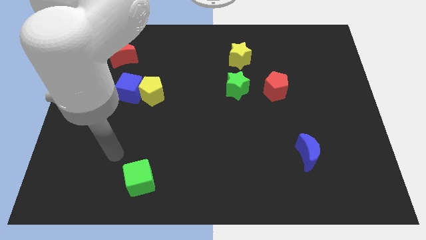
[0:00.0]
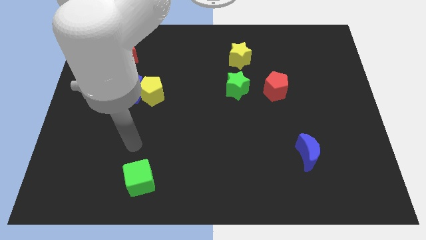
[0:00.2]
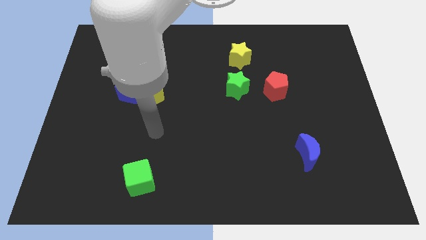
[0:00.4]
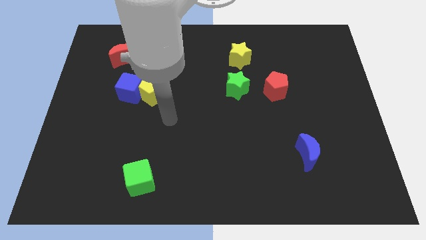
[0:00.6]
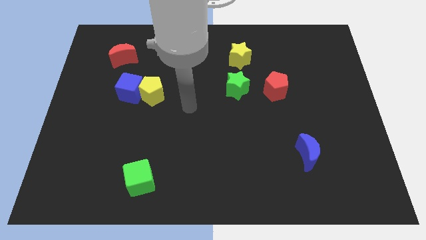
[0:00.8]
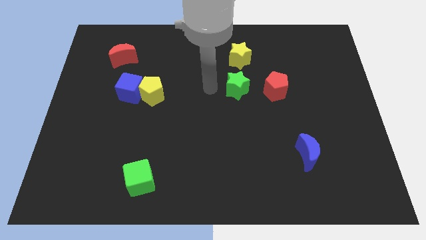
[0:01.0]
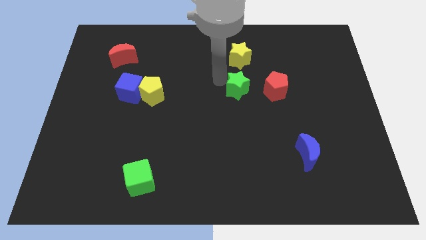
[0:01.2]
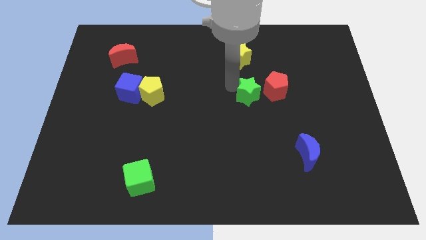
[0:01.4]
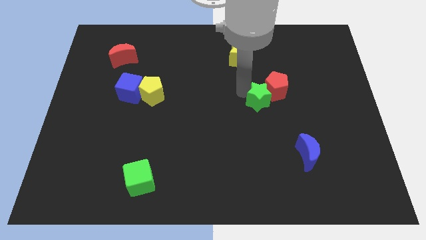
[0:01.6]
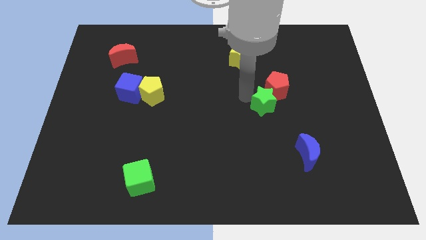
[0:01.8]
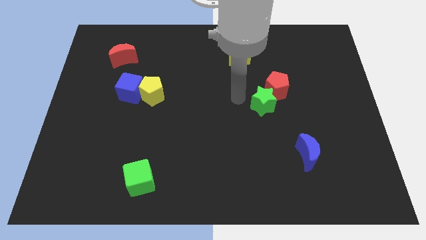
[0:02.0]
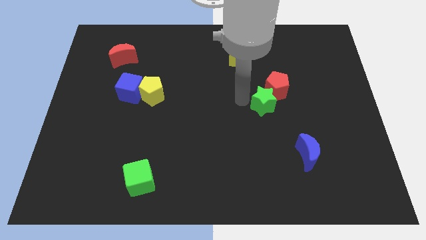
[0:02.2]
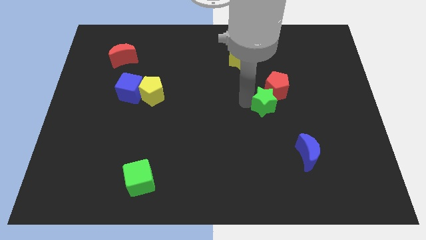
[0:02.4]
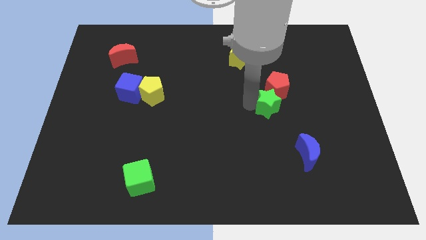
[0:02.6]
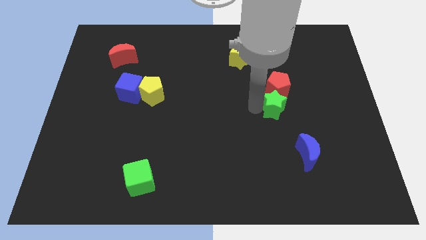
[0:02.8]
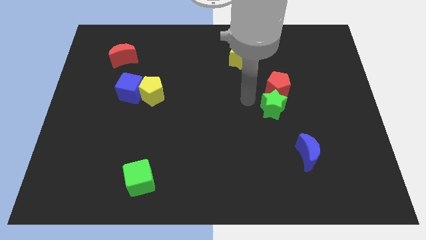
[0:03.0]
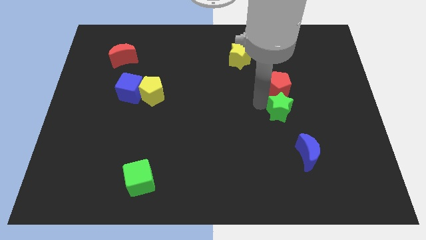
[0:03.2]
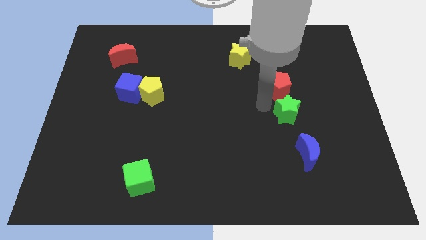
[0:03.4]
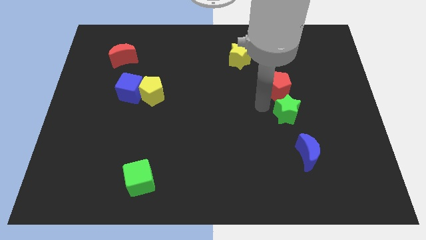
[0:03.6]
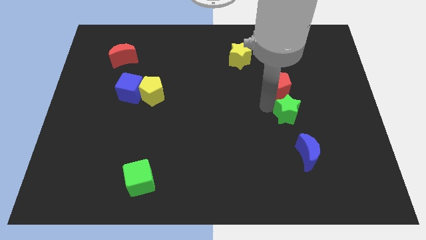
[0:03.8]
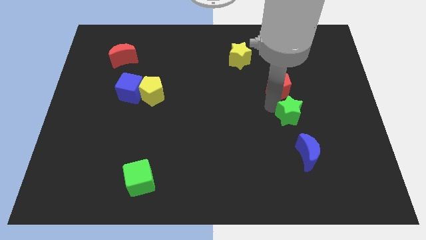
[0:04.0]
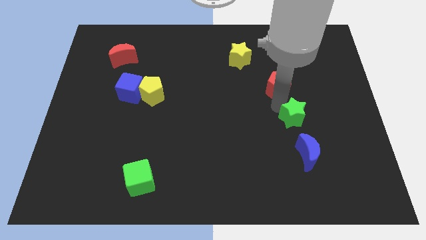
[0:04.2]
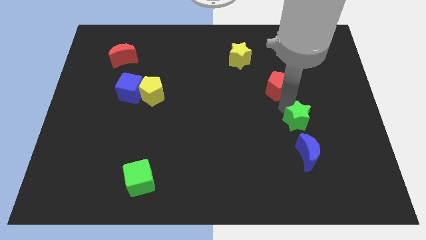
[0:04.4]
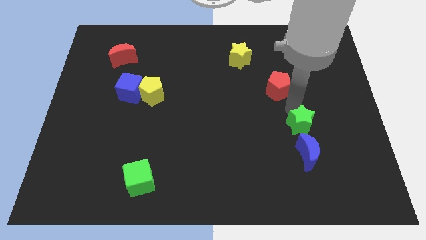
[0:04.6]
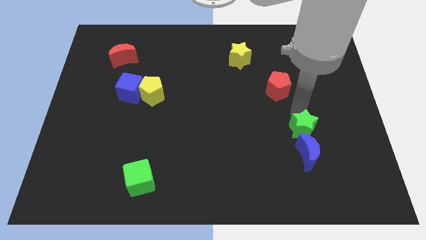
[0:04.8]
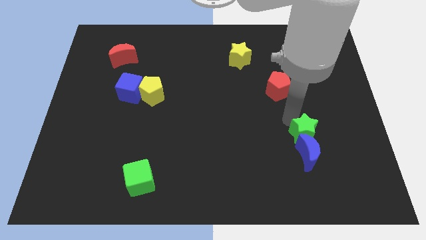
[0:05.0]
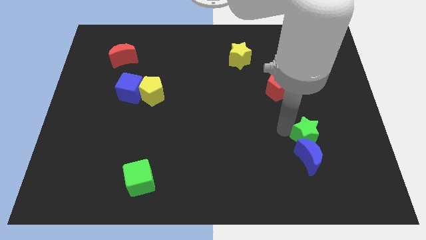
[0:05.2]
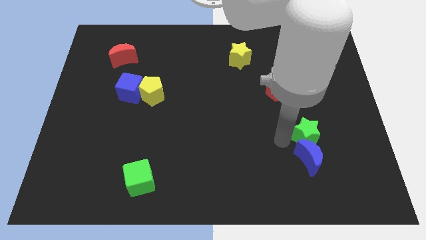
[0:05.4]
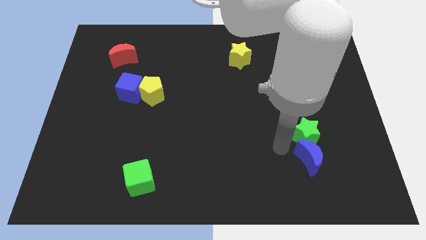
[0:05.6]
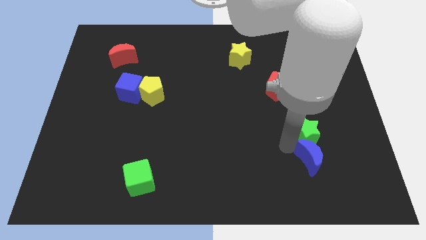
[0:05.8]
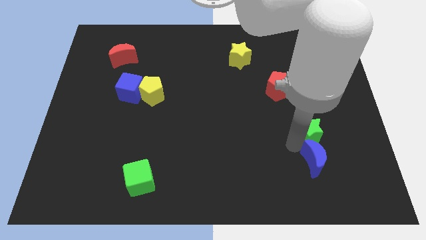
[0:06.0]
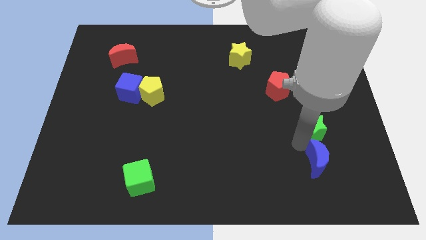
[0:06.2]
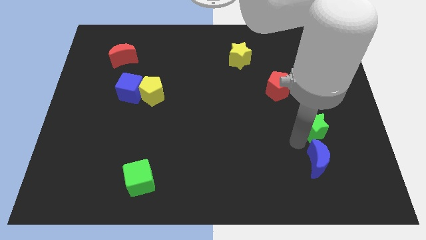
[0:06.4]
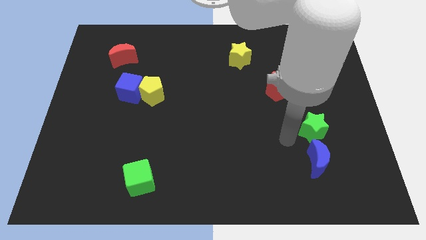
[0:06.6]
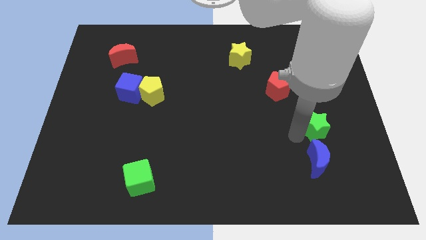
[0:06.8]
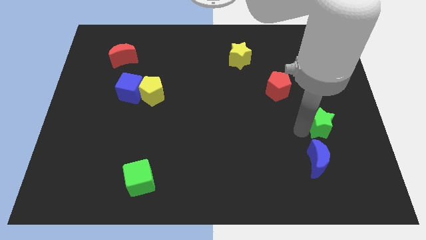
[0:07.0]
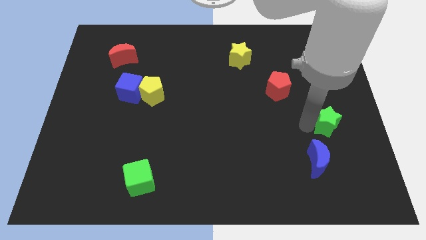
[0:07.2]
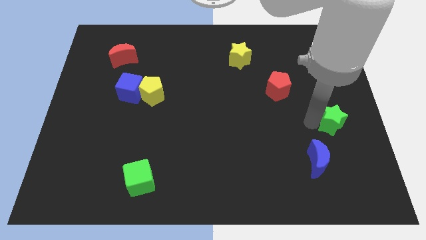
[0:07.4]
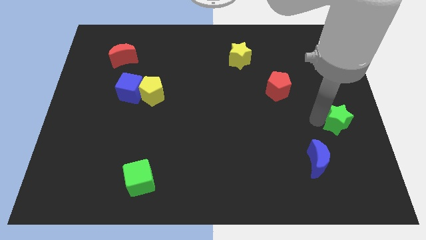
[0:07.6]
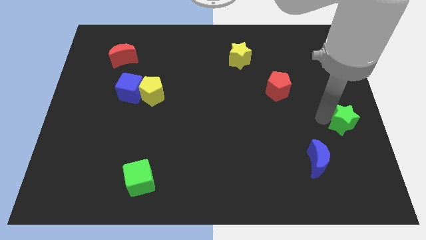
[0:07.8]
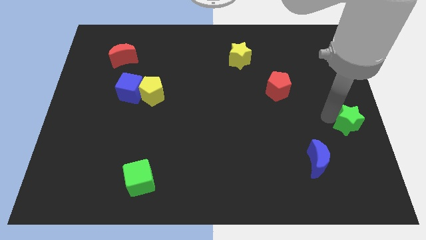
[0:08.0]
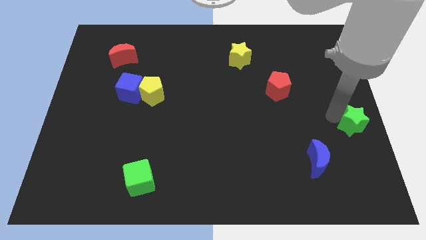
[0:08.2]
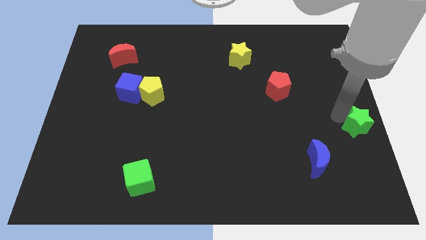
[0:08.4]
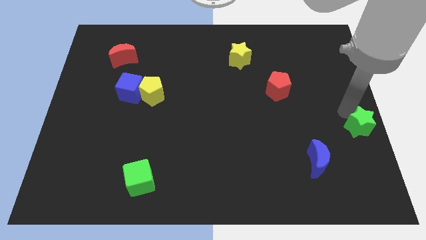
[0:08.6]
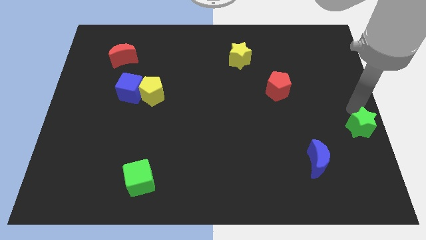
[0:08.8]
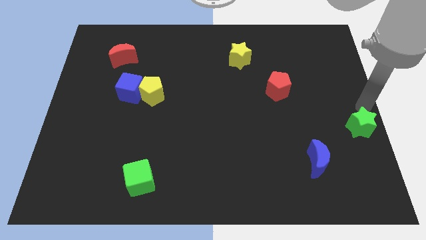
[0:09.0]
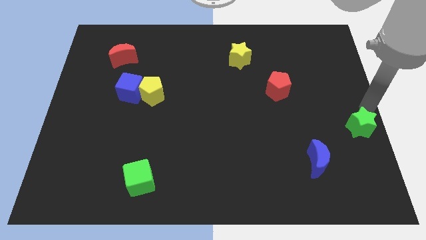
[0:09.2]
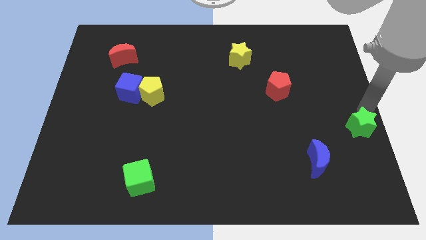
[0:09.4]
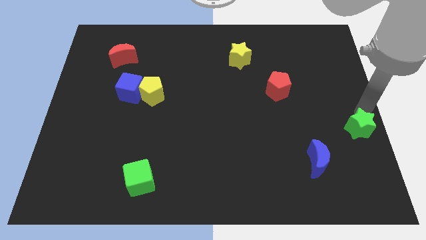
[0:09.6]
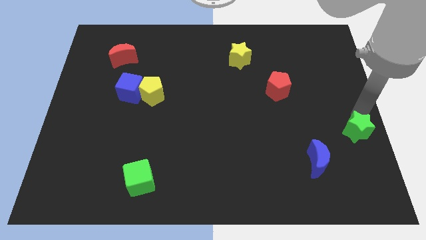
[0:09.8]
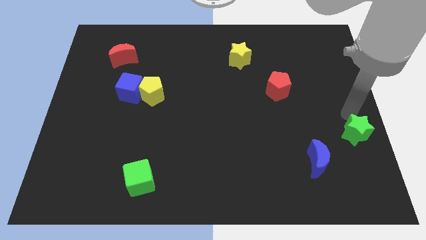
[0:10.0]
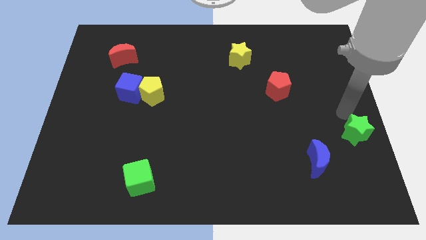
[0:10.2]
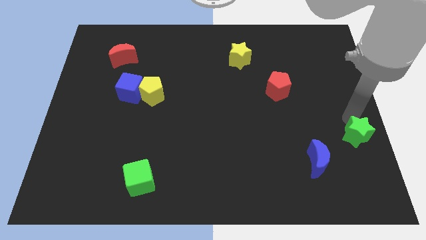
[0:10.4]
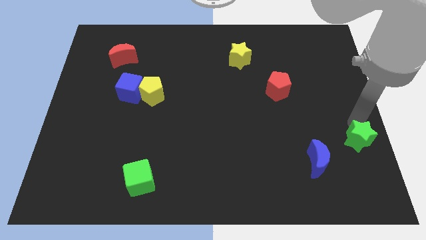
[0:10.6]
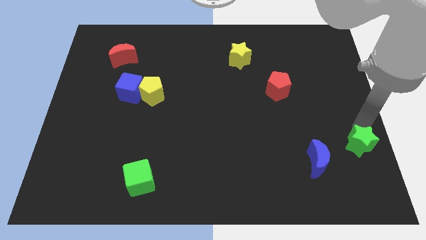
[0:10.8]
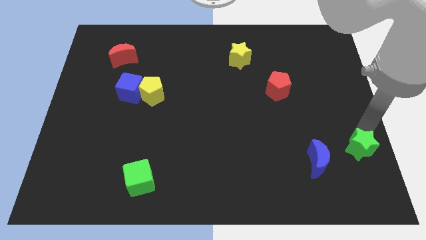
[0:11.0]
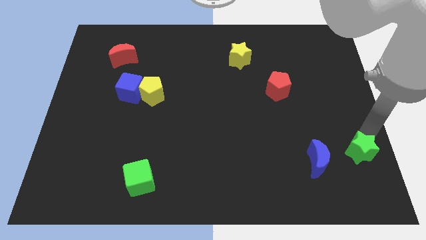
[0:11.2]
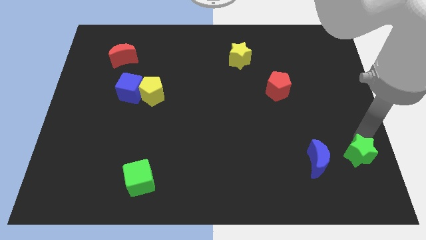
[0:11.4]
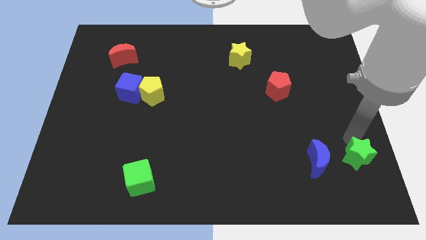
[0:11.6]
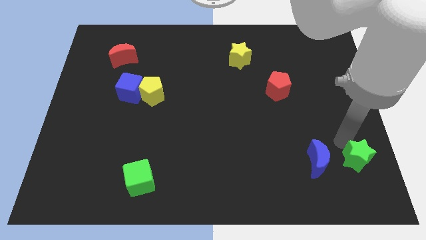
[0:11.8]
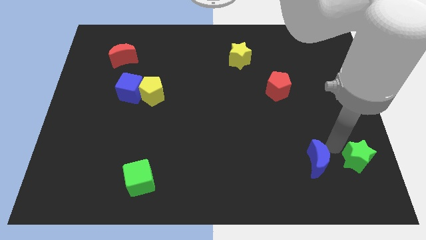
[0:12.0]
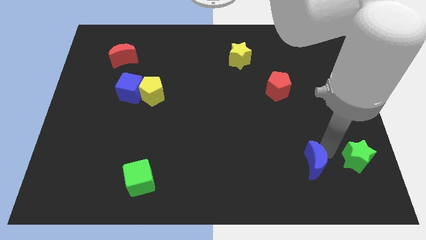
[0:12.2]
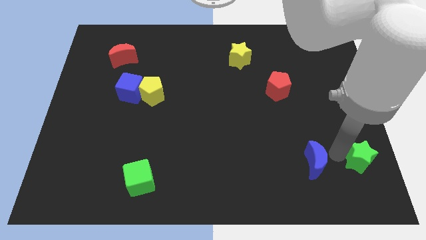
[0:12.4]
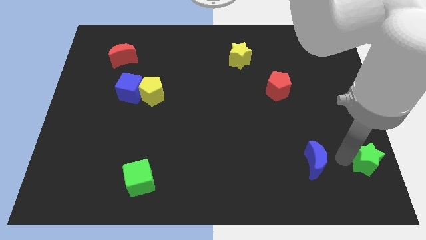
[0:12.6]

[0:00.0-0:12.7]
move the green star to the bottom right
